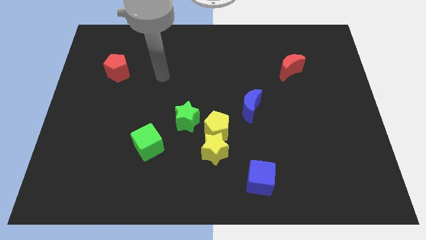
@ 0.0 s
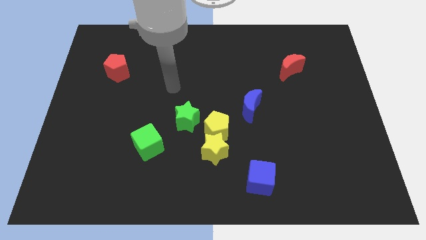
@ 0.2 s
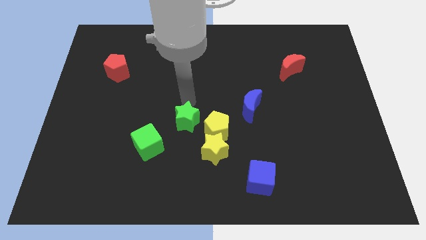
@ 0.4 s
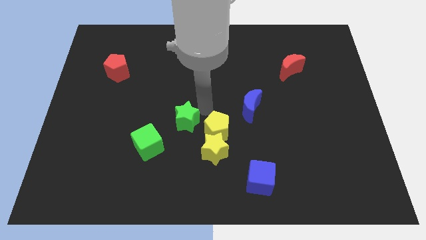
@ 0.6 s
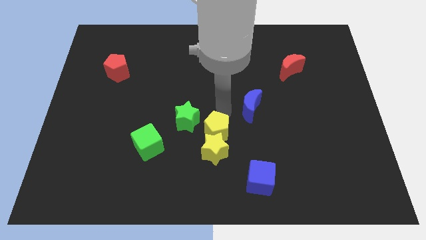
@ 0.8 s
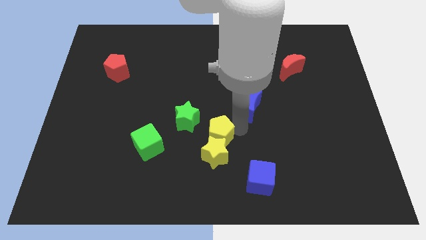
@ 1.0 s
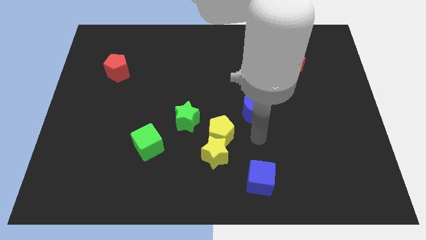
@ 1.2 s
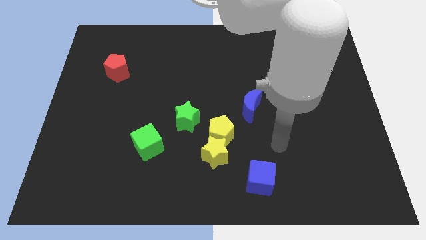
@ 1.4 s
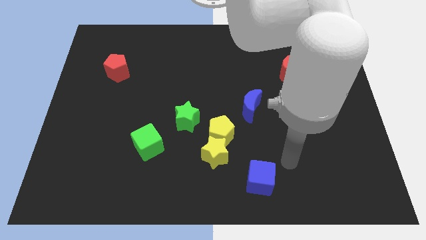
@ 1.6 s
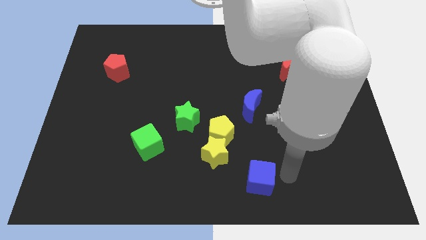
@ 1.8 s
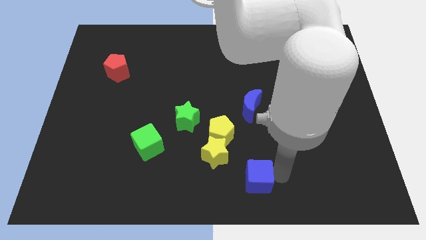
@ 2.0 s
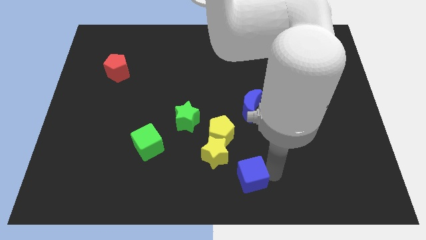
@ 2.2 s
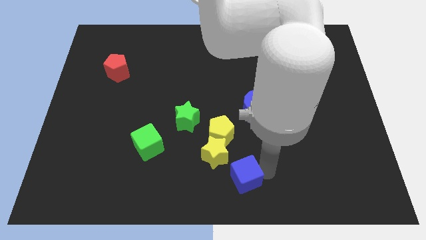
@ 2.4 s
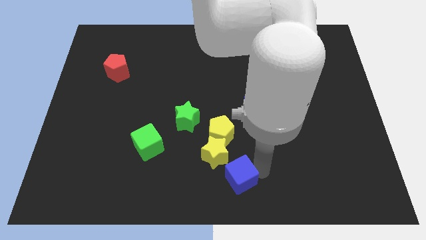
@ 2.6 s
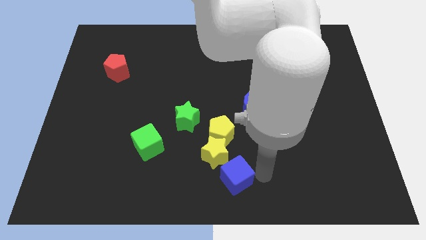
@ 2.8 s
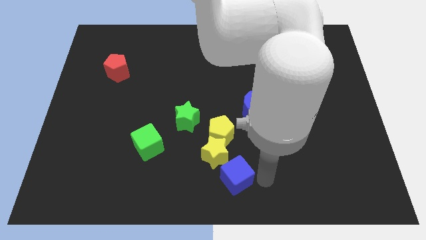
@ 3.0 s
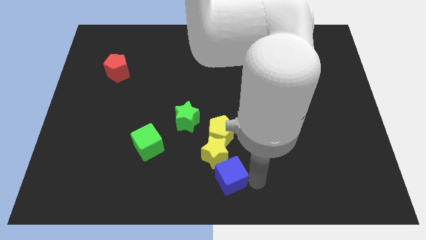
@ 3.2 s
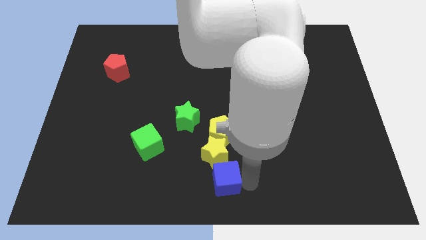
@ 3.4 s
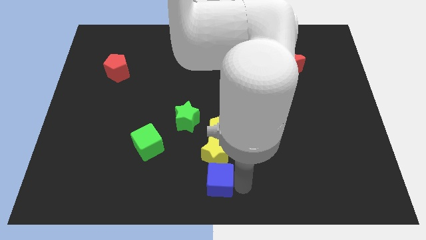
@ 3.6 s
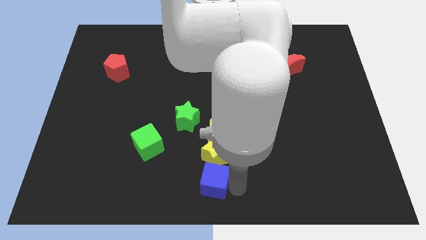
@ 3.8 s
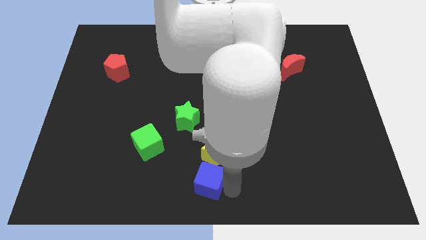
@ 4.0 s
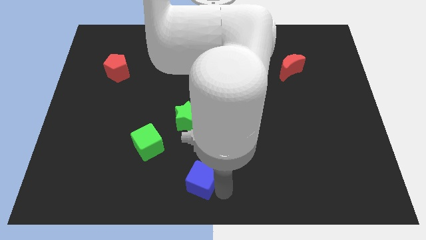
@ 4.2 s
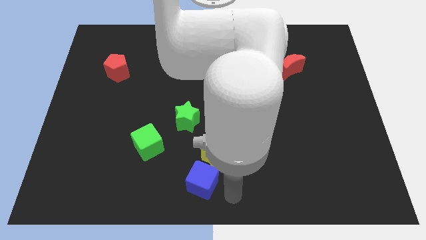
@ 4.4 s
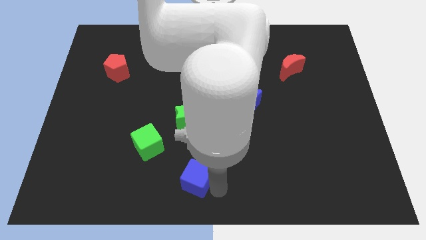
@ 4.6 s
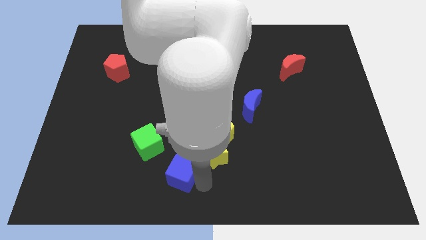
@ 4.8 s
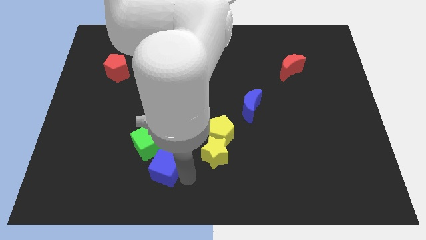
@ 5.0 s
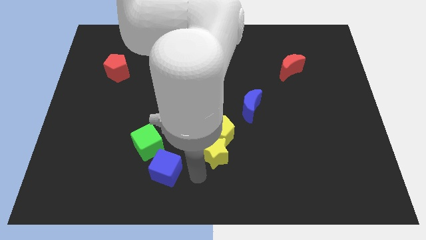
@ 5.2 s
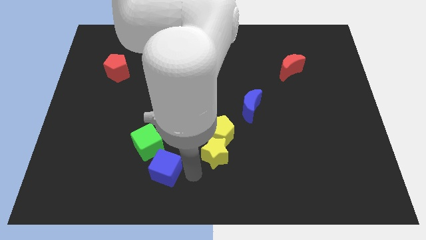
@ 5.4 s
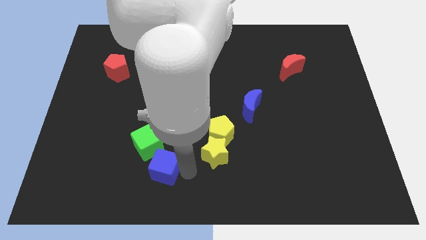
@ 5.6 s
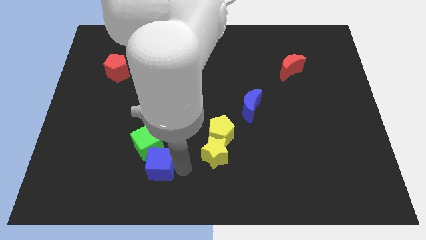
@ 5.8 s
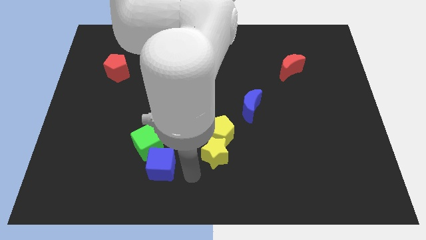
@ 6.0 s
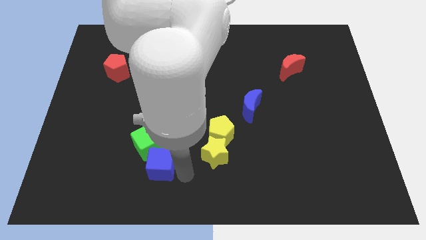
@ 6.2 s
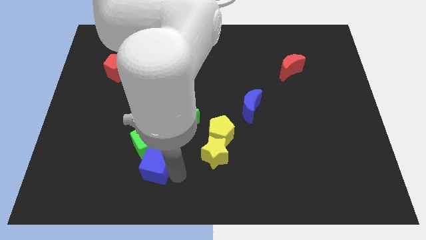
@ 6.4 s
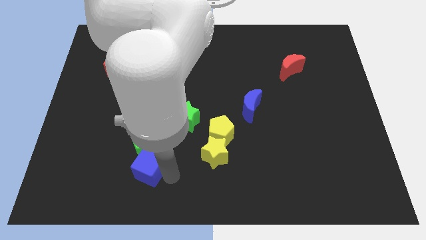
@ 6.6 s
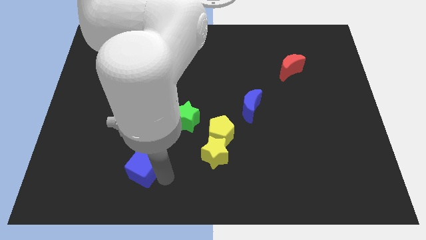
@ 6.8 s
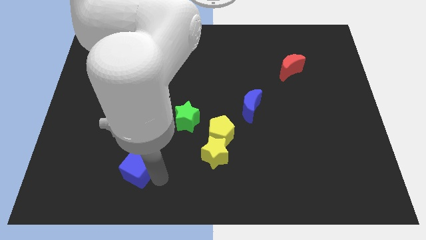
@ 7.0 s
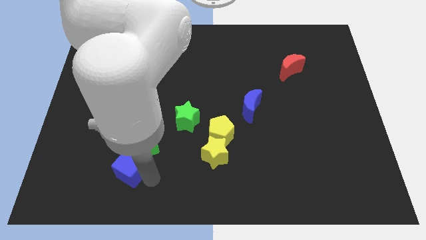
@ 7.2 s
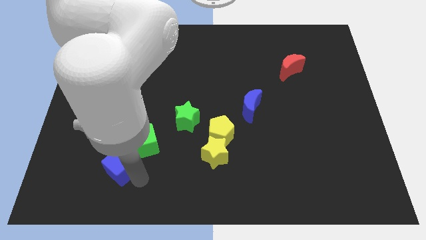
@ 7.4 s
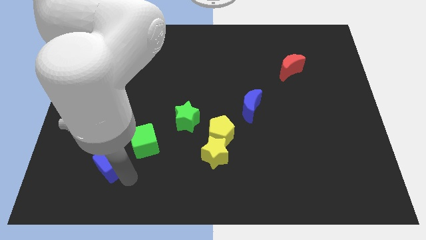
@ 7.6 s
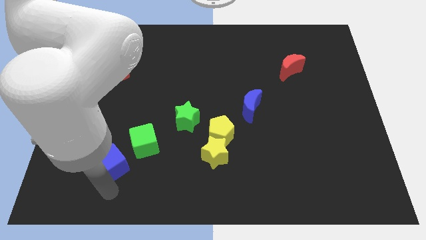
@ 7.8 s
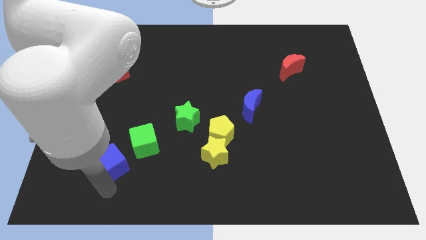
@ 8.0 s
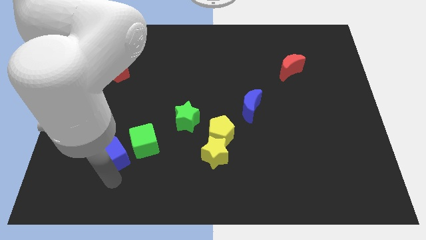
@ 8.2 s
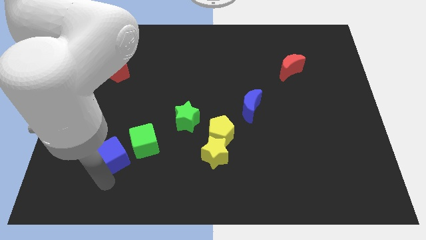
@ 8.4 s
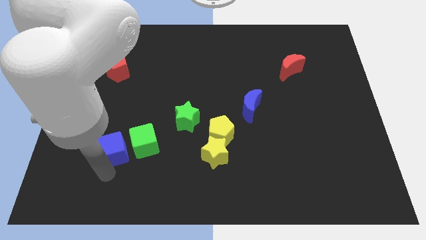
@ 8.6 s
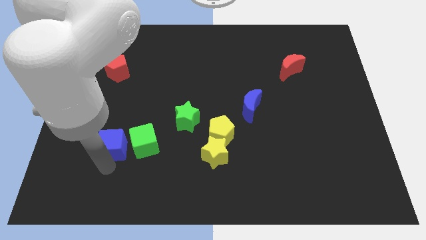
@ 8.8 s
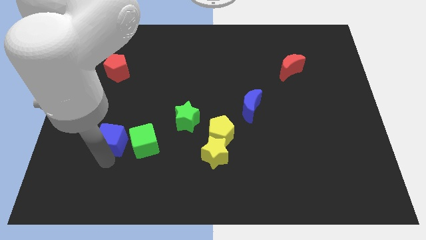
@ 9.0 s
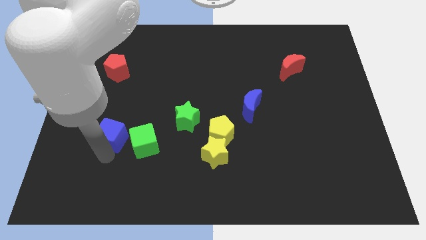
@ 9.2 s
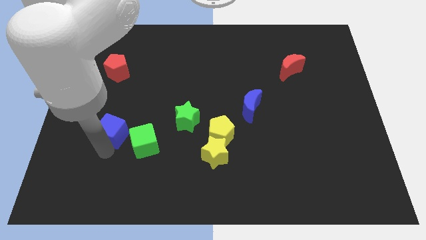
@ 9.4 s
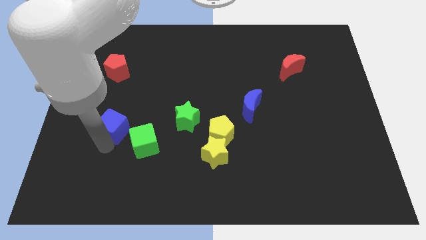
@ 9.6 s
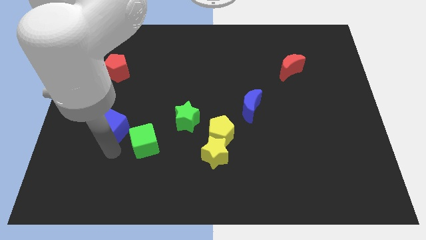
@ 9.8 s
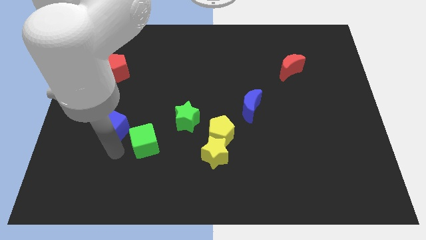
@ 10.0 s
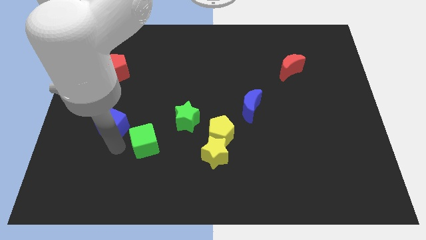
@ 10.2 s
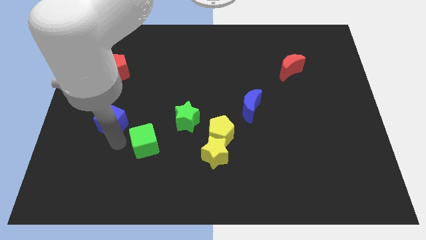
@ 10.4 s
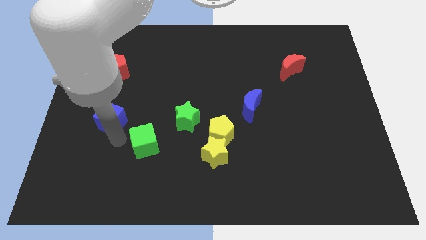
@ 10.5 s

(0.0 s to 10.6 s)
push the blue cube below the red pentagon

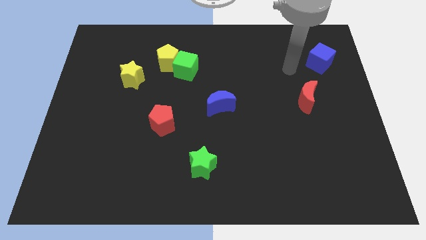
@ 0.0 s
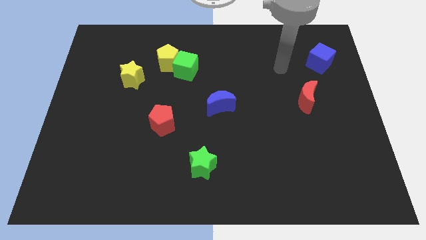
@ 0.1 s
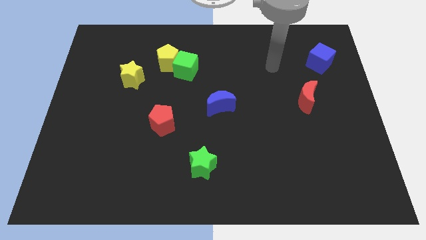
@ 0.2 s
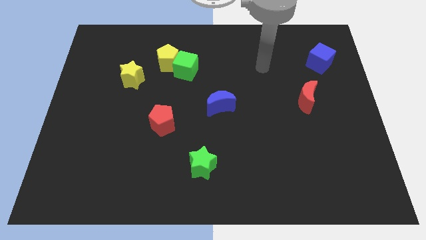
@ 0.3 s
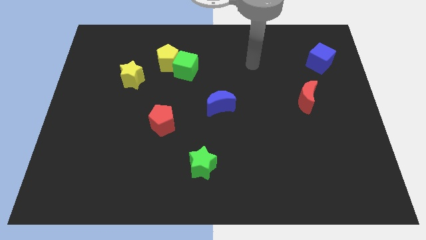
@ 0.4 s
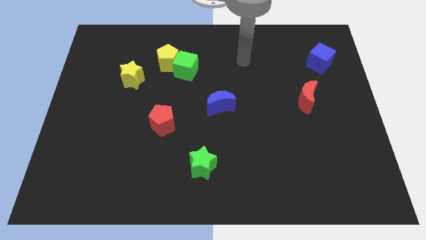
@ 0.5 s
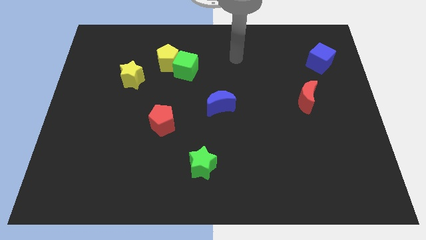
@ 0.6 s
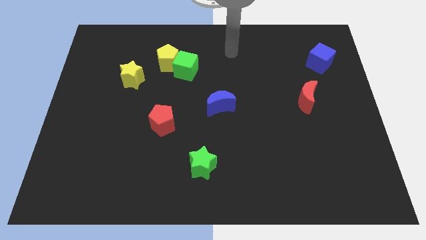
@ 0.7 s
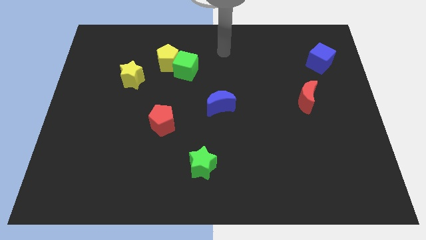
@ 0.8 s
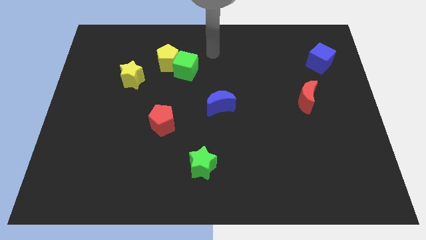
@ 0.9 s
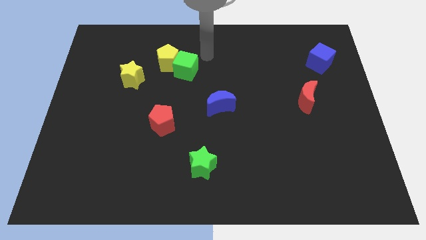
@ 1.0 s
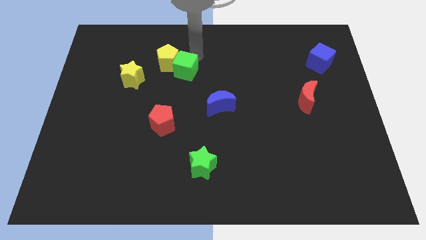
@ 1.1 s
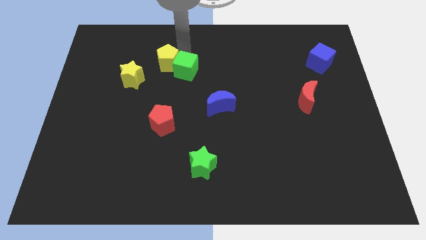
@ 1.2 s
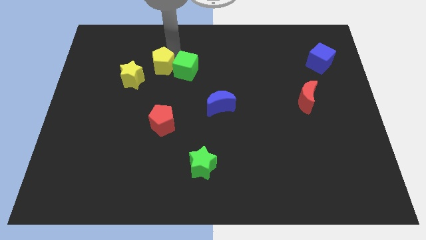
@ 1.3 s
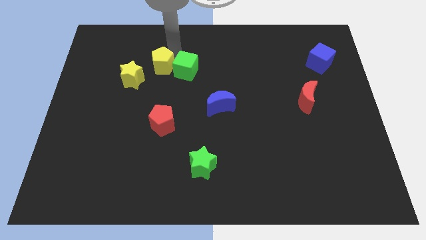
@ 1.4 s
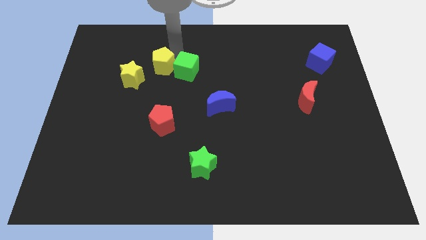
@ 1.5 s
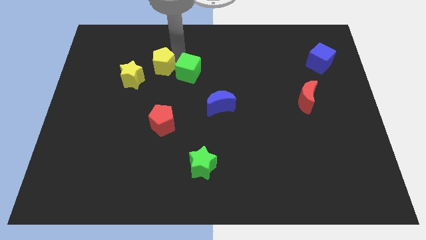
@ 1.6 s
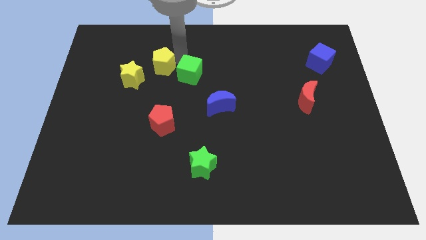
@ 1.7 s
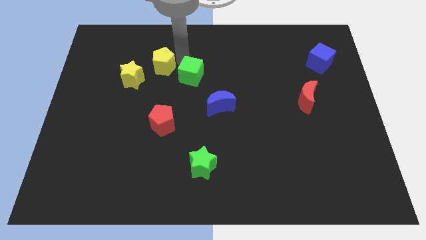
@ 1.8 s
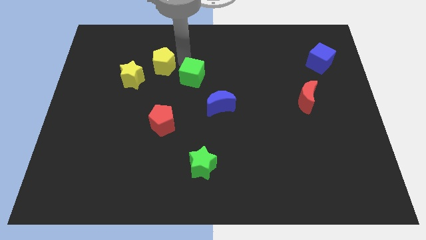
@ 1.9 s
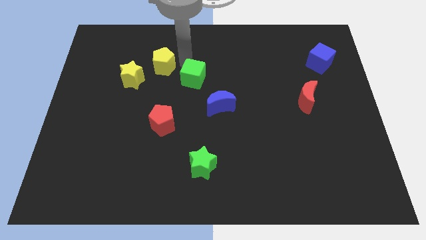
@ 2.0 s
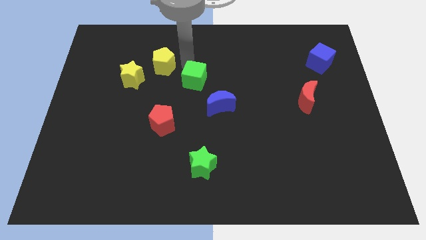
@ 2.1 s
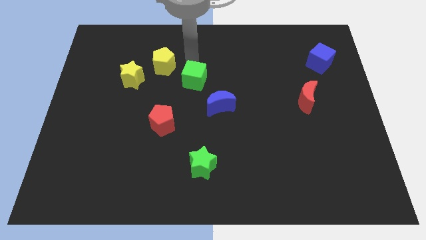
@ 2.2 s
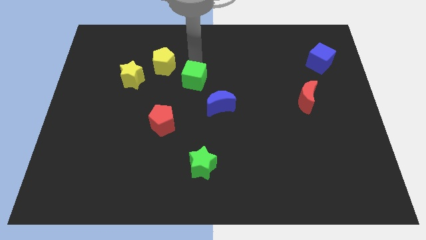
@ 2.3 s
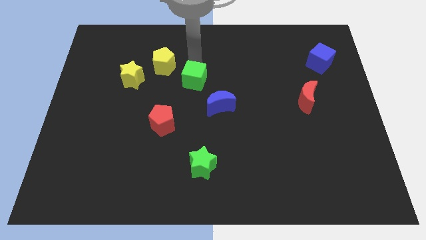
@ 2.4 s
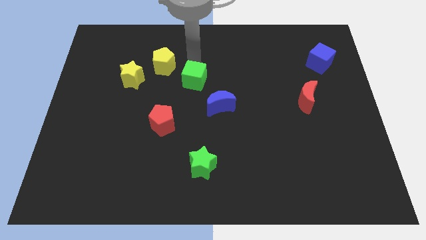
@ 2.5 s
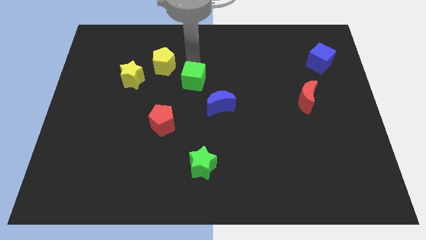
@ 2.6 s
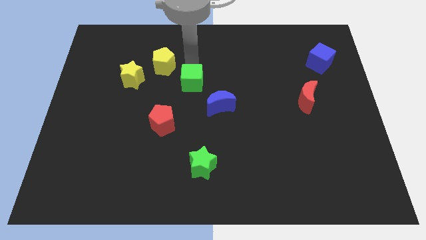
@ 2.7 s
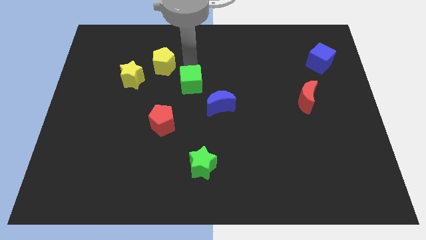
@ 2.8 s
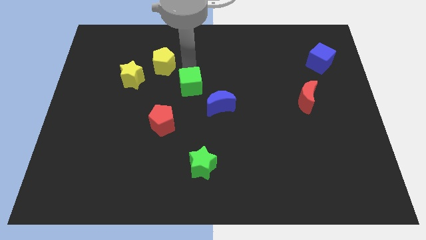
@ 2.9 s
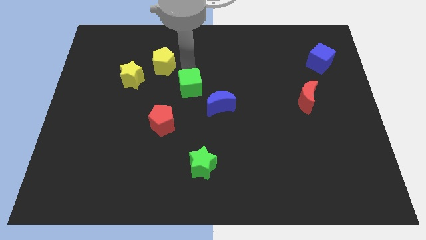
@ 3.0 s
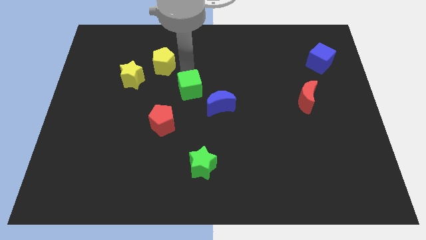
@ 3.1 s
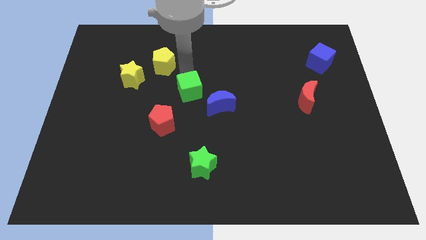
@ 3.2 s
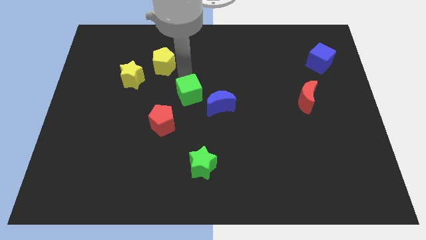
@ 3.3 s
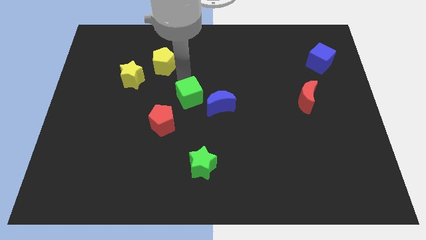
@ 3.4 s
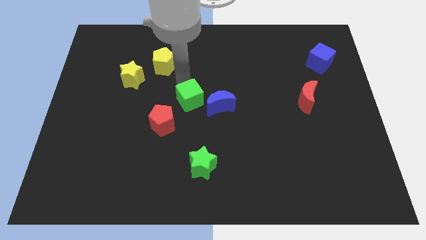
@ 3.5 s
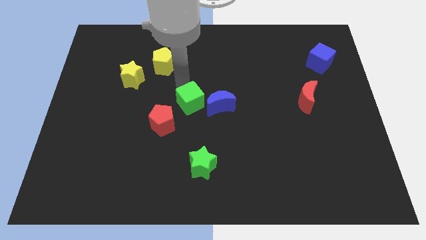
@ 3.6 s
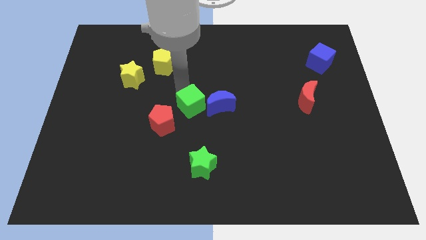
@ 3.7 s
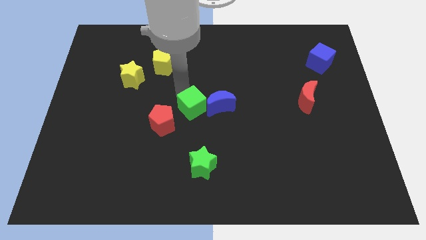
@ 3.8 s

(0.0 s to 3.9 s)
push the green cube right of the red pentagon
